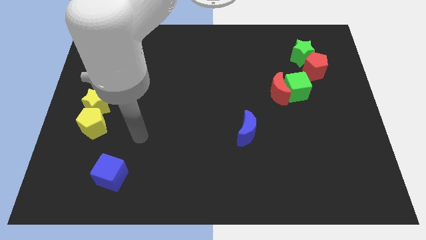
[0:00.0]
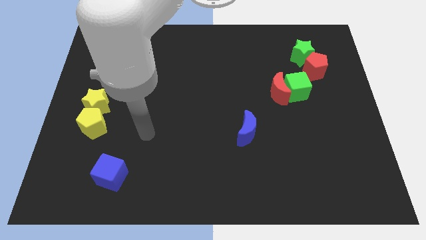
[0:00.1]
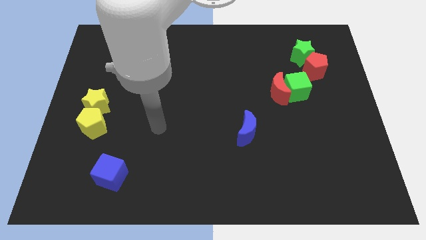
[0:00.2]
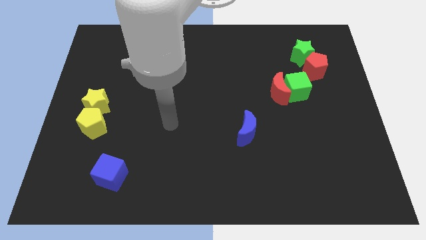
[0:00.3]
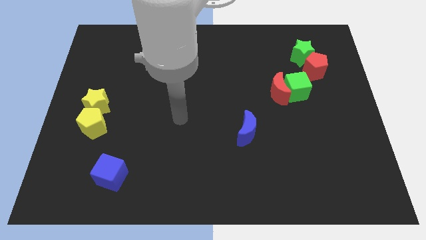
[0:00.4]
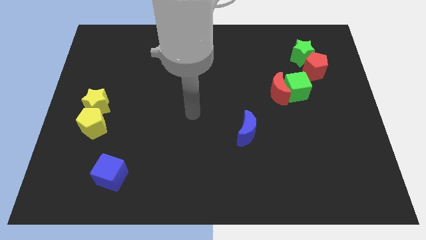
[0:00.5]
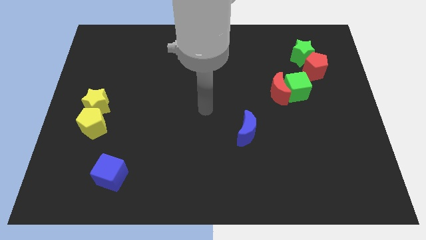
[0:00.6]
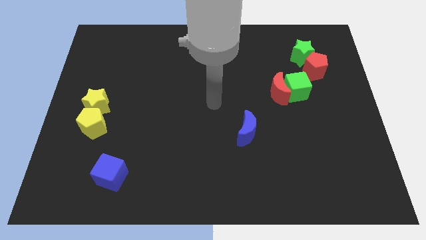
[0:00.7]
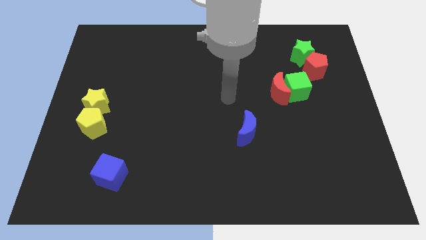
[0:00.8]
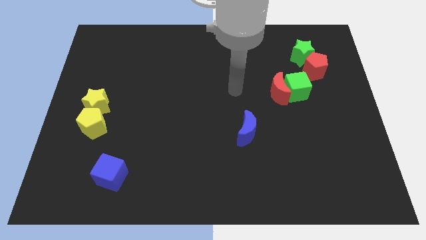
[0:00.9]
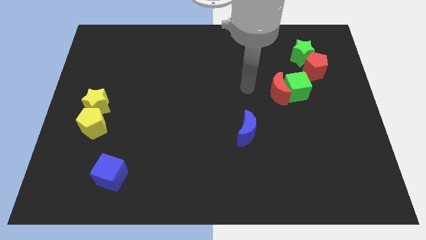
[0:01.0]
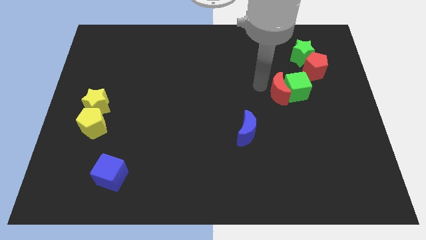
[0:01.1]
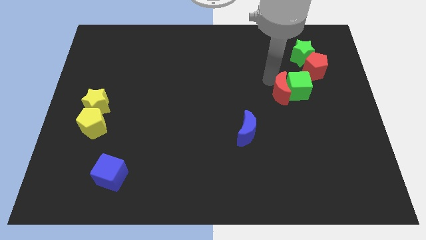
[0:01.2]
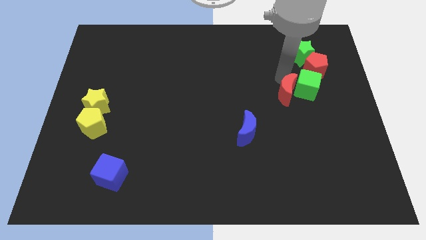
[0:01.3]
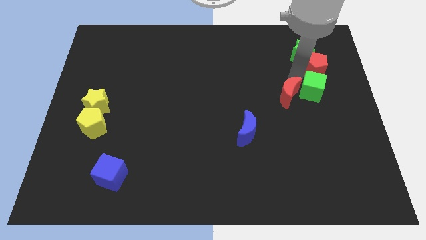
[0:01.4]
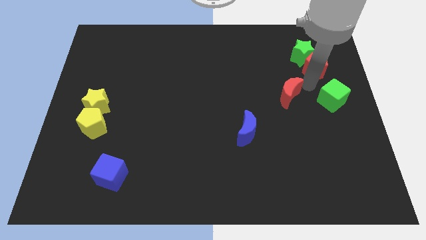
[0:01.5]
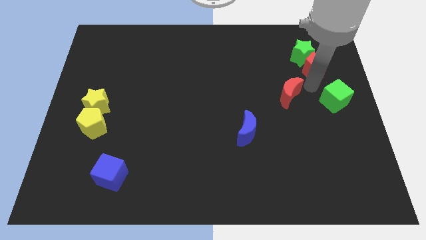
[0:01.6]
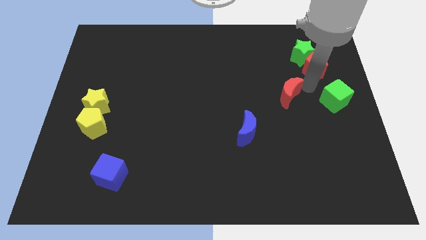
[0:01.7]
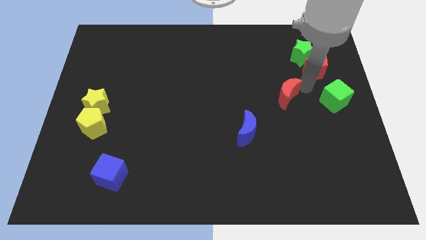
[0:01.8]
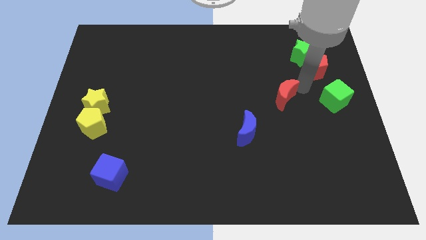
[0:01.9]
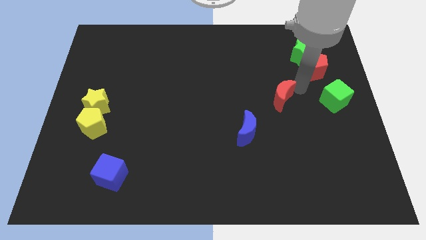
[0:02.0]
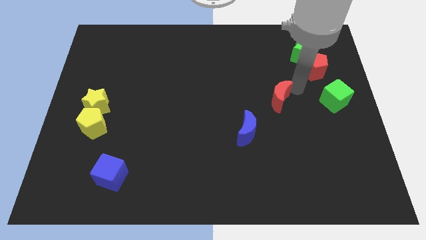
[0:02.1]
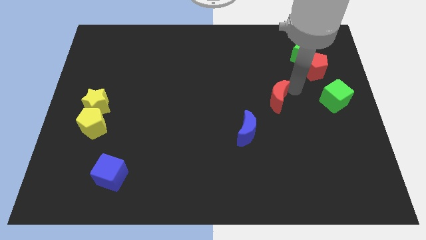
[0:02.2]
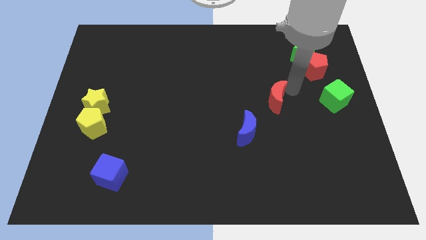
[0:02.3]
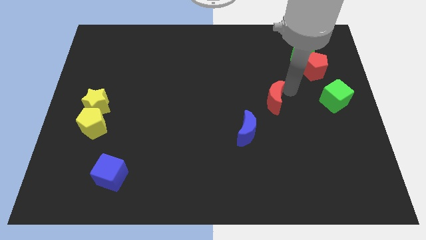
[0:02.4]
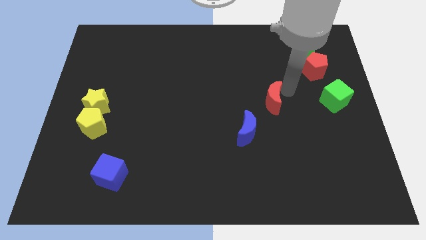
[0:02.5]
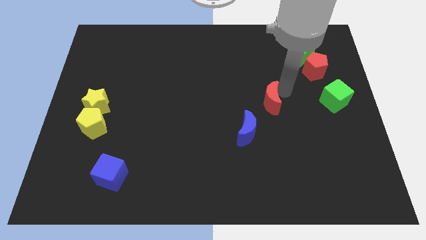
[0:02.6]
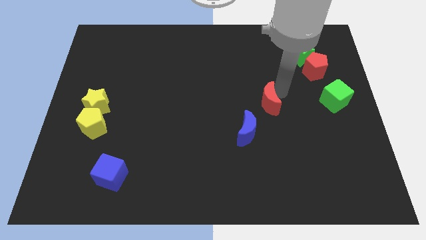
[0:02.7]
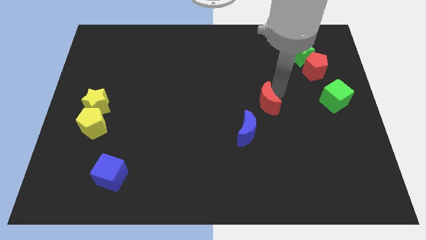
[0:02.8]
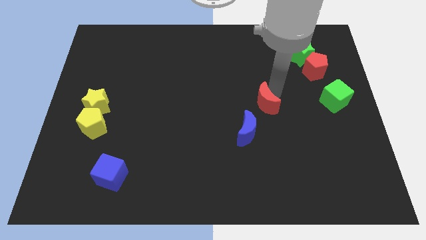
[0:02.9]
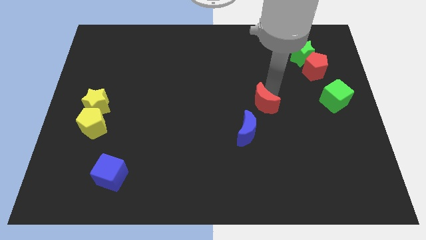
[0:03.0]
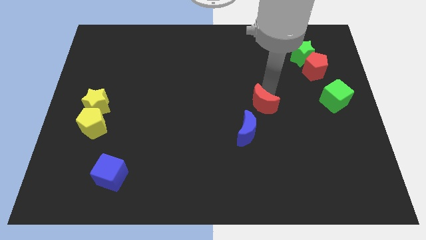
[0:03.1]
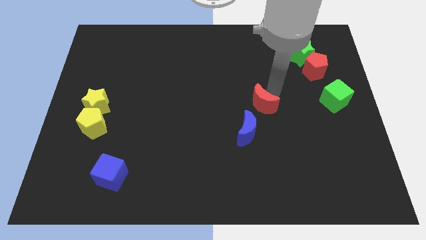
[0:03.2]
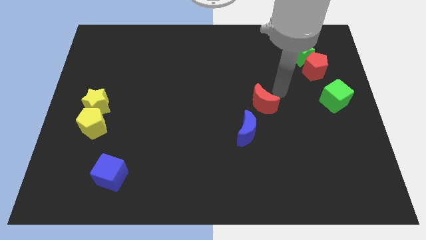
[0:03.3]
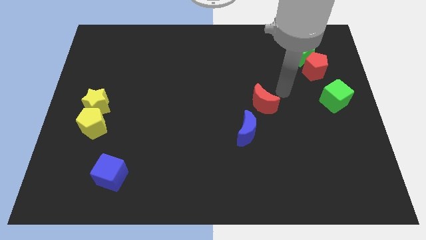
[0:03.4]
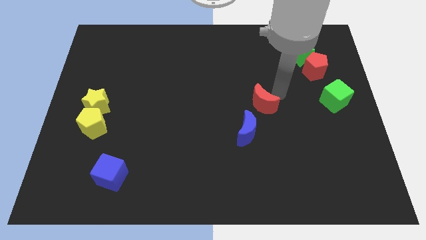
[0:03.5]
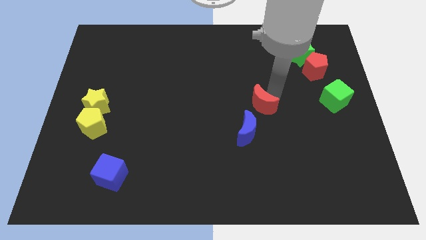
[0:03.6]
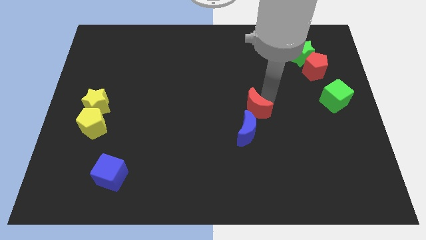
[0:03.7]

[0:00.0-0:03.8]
move the red moon a bit diagonally down and left

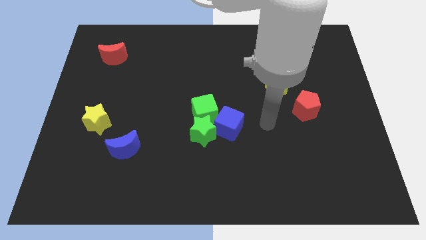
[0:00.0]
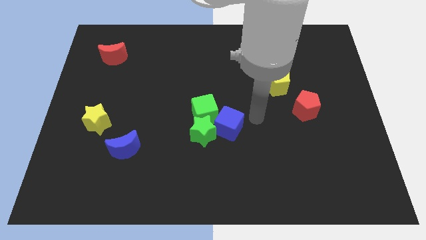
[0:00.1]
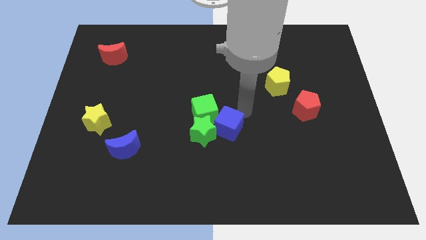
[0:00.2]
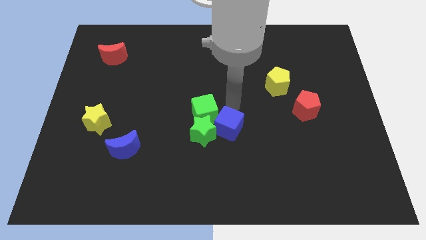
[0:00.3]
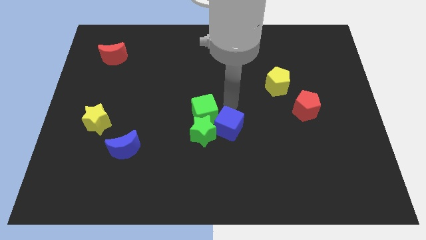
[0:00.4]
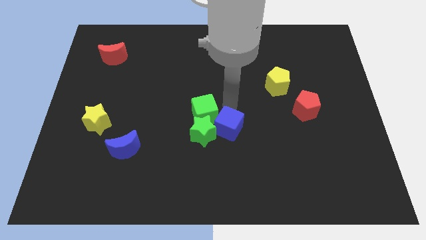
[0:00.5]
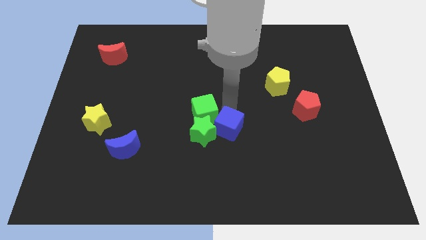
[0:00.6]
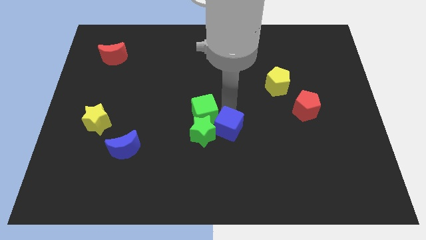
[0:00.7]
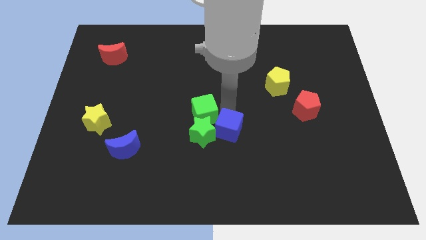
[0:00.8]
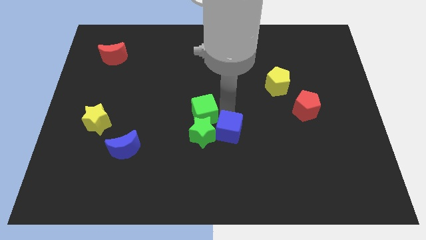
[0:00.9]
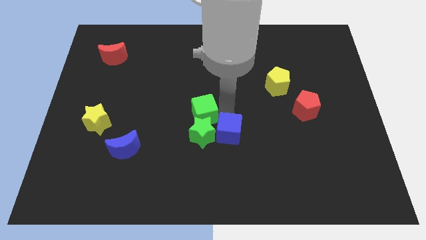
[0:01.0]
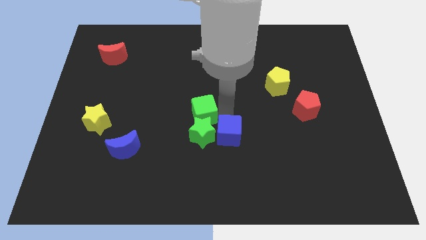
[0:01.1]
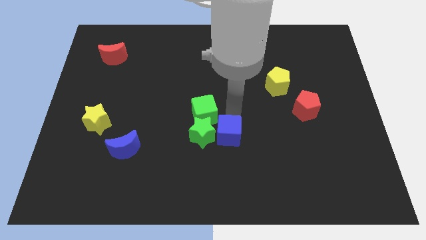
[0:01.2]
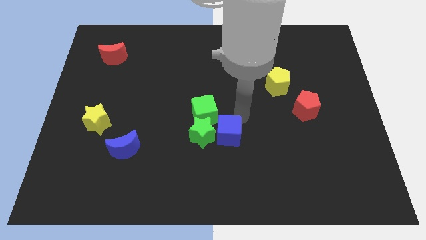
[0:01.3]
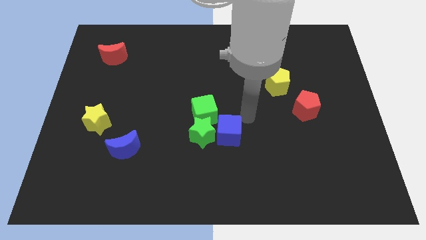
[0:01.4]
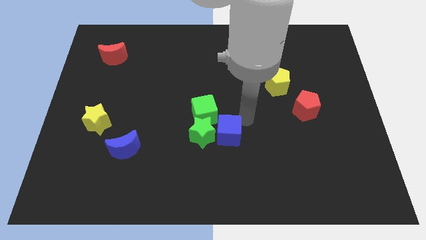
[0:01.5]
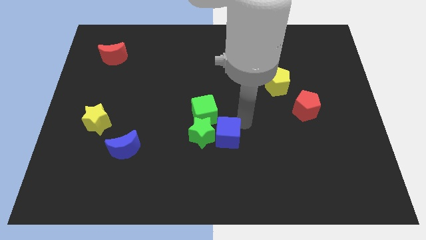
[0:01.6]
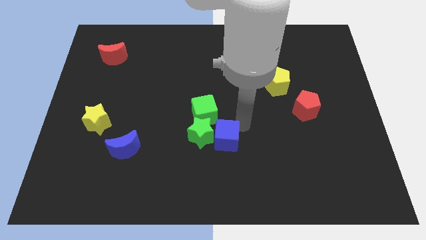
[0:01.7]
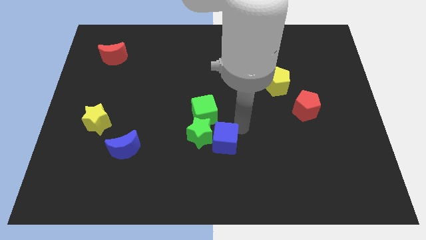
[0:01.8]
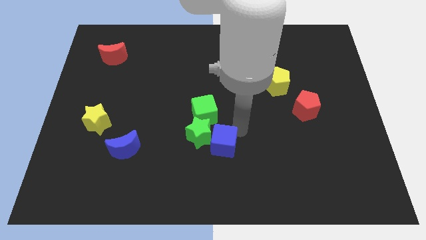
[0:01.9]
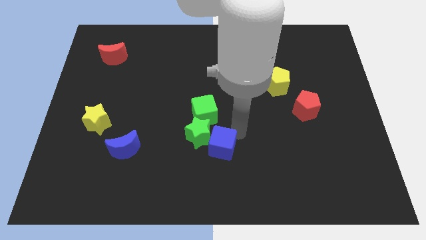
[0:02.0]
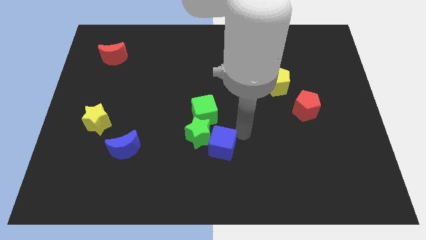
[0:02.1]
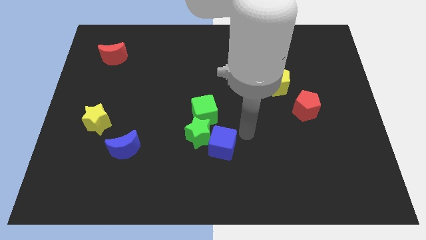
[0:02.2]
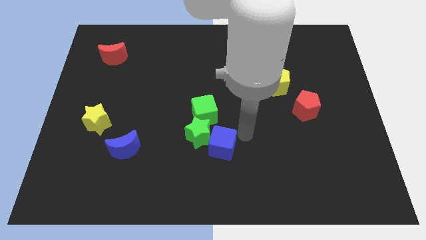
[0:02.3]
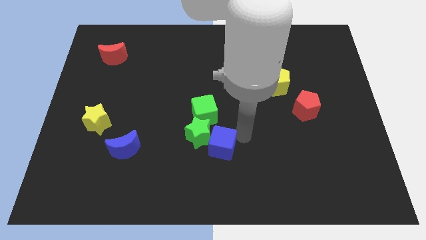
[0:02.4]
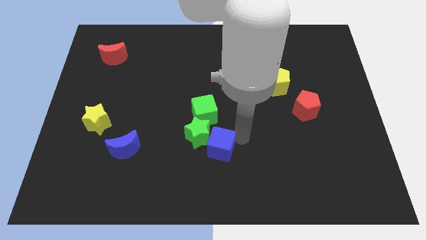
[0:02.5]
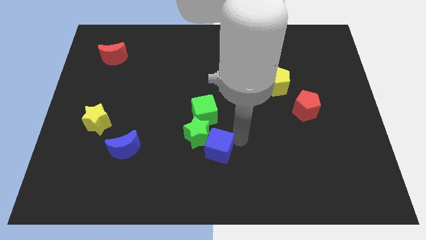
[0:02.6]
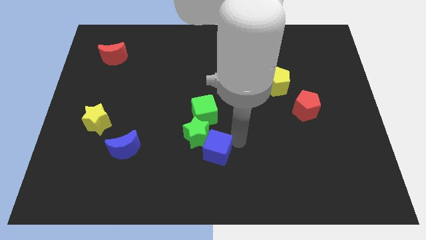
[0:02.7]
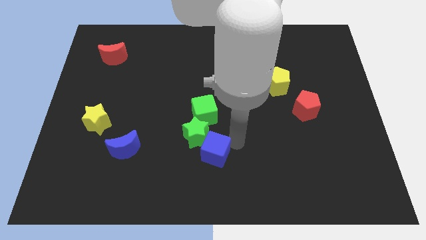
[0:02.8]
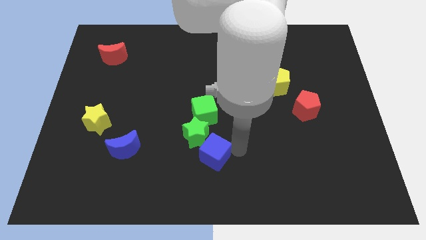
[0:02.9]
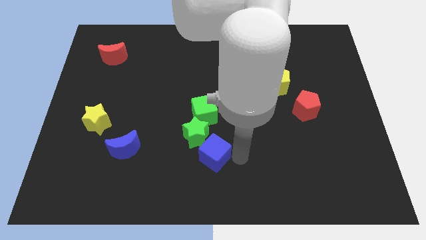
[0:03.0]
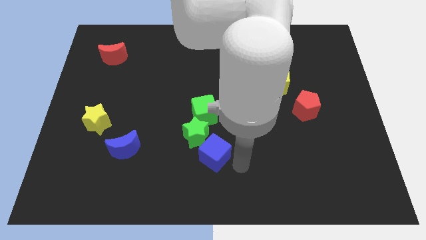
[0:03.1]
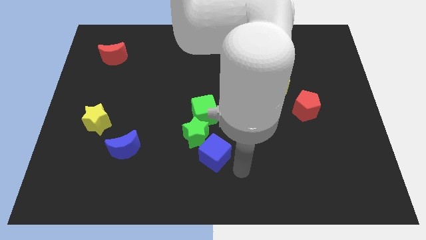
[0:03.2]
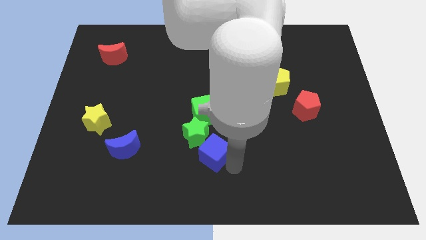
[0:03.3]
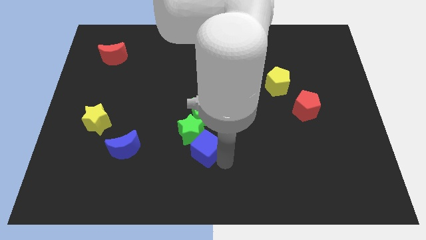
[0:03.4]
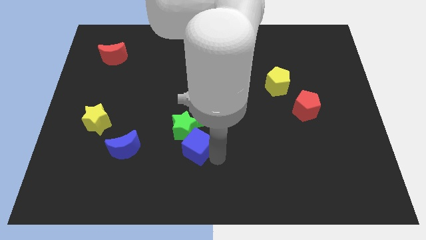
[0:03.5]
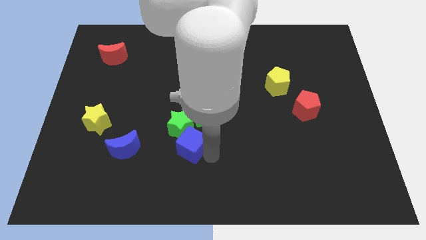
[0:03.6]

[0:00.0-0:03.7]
move the blue cube somewhat to the left

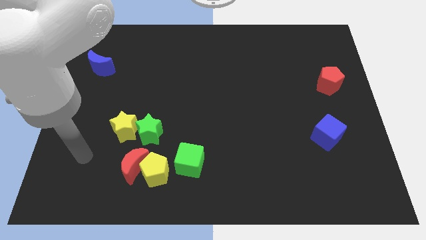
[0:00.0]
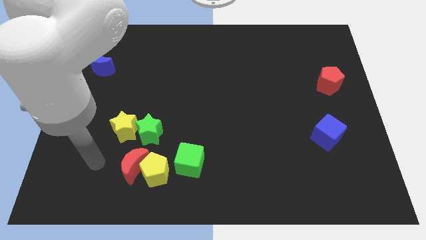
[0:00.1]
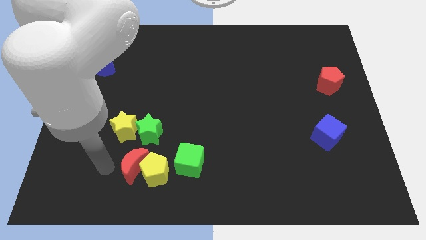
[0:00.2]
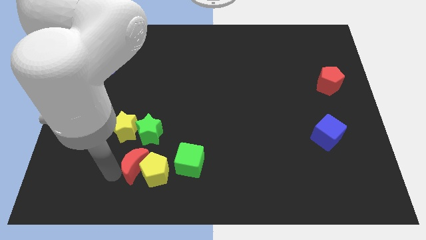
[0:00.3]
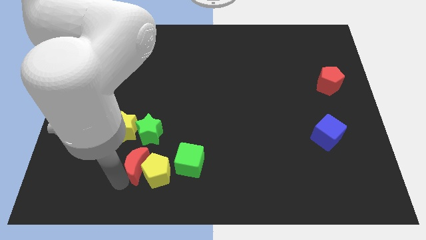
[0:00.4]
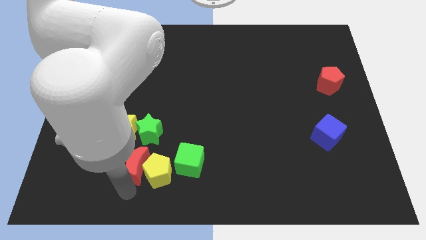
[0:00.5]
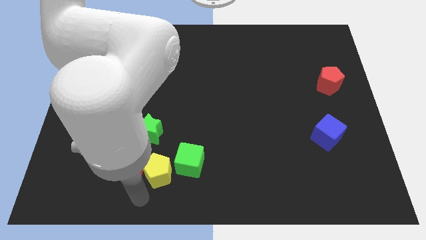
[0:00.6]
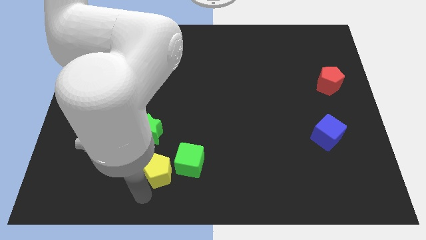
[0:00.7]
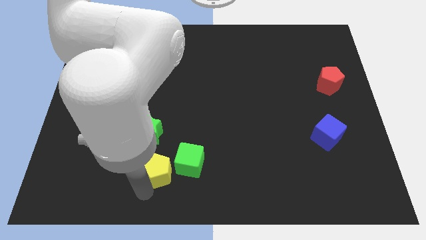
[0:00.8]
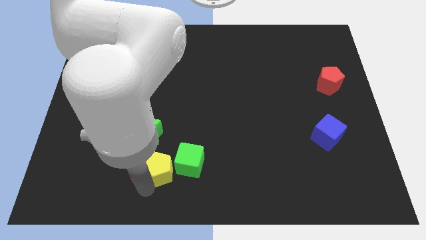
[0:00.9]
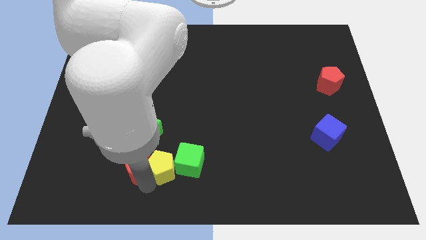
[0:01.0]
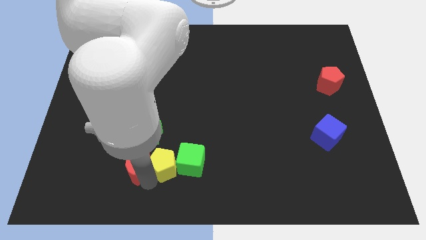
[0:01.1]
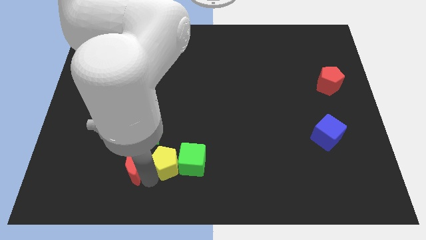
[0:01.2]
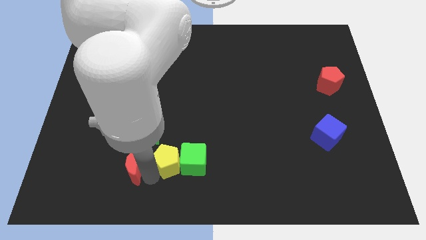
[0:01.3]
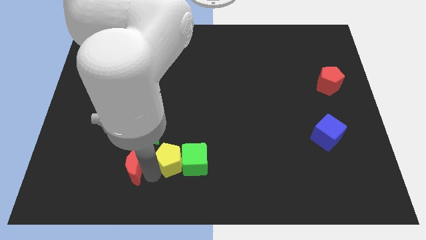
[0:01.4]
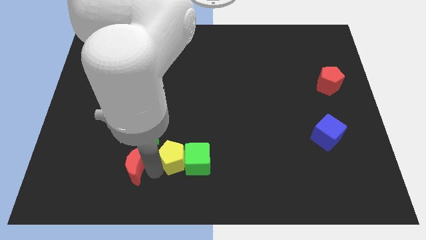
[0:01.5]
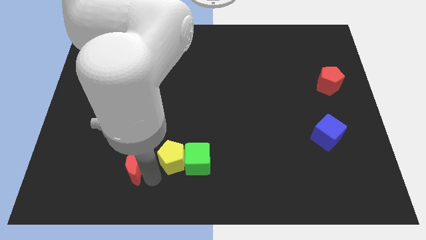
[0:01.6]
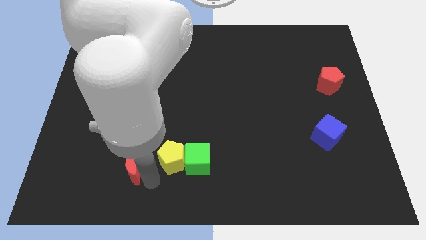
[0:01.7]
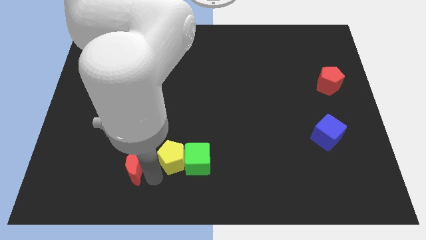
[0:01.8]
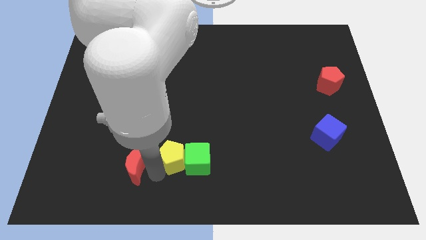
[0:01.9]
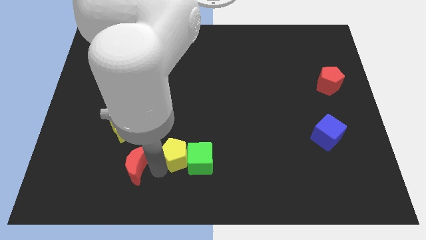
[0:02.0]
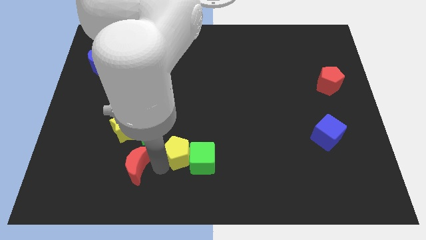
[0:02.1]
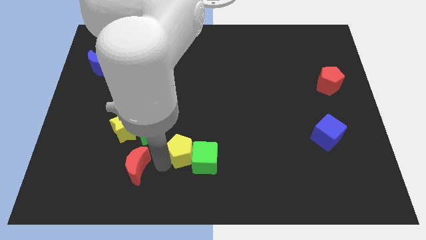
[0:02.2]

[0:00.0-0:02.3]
push the yellow pentagon a little diagonally up and right
